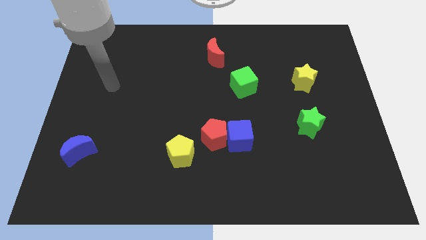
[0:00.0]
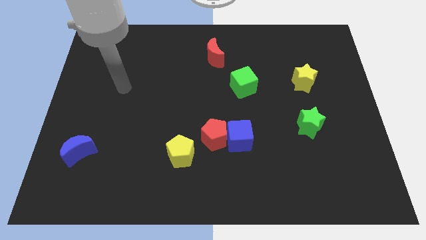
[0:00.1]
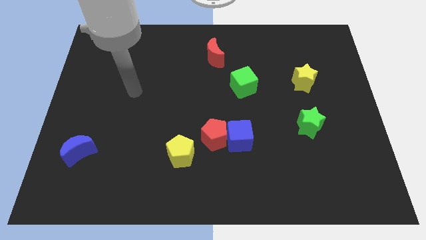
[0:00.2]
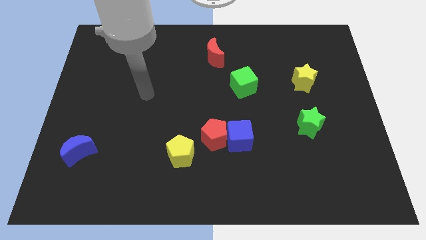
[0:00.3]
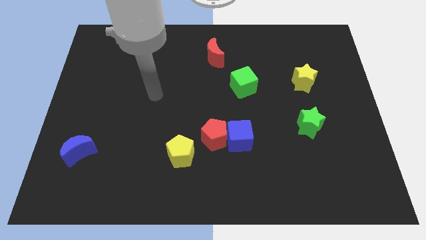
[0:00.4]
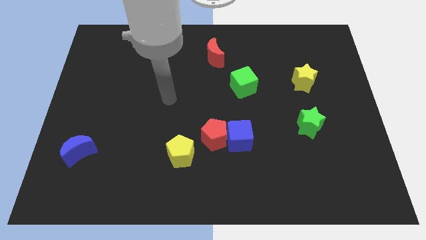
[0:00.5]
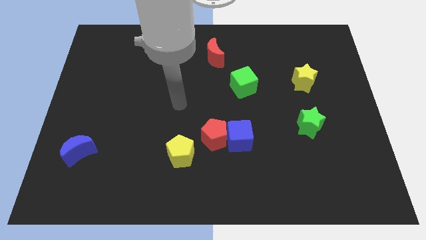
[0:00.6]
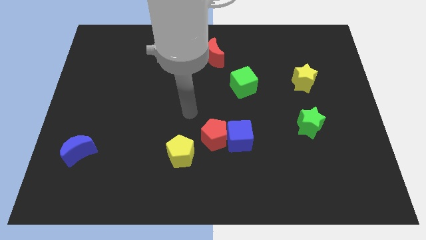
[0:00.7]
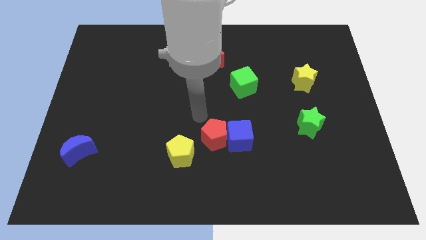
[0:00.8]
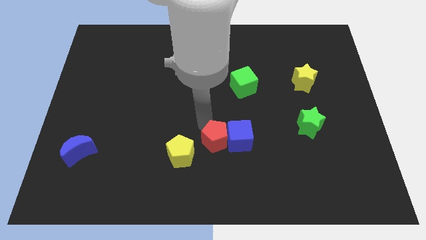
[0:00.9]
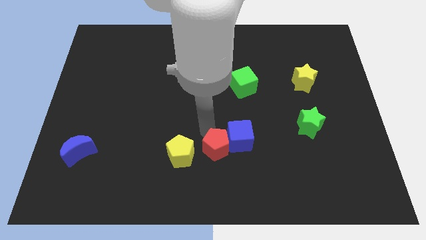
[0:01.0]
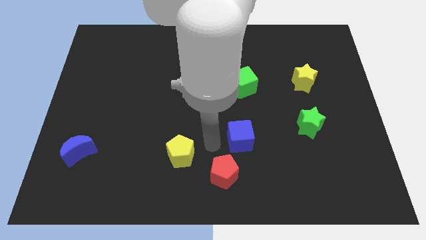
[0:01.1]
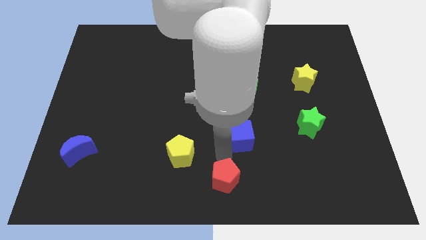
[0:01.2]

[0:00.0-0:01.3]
move the blue cube away from the red pentagon

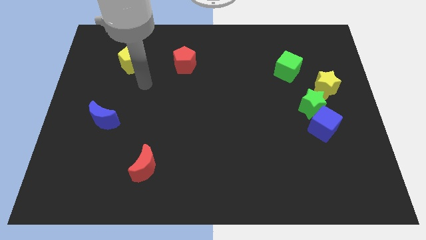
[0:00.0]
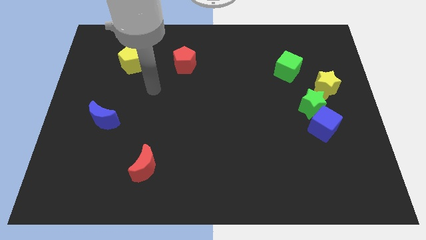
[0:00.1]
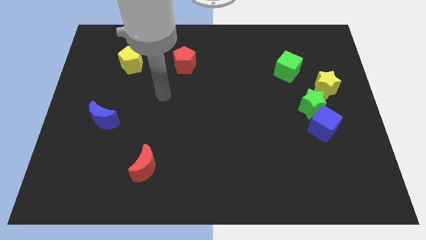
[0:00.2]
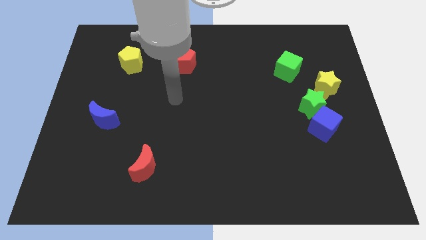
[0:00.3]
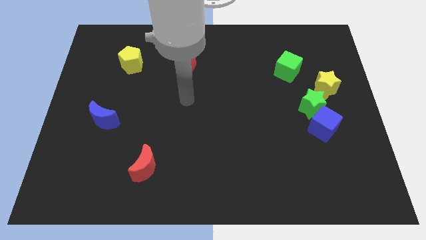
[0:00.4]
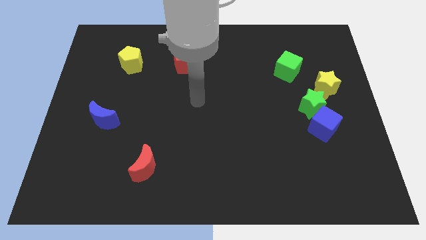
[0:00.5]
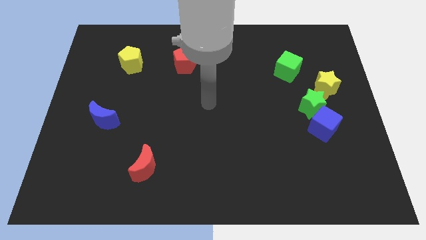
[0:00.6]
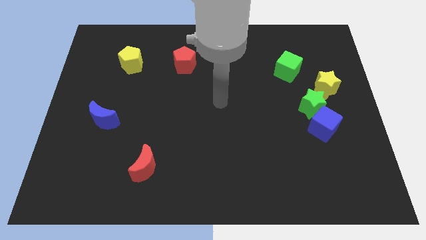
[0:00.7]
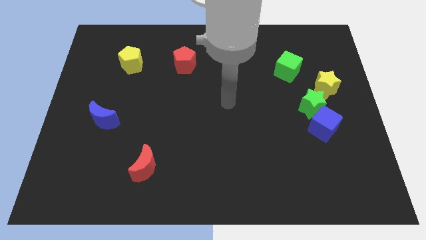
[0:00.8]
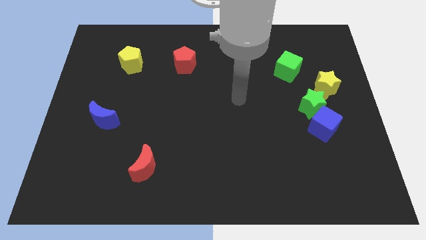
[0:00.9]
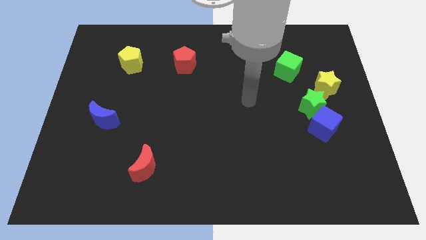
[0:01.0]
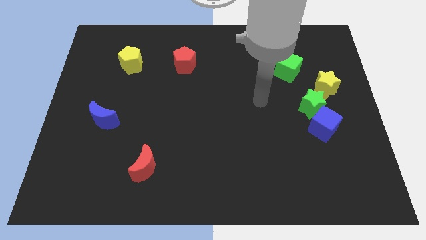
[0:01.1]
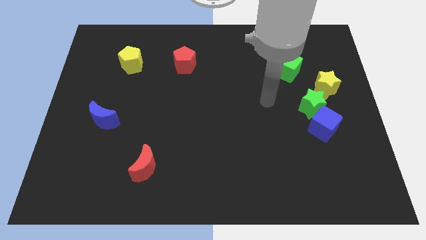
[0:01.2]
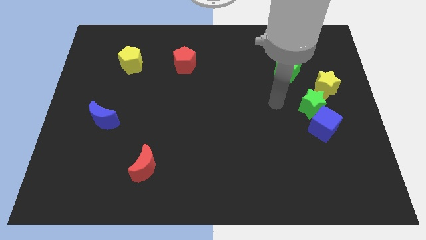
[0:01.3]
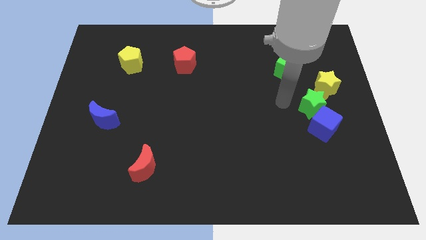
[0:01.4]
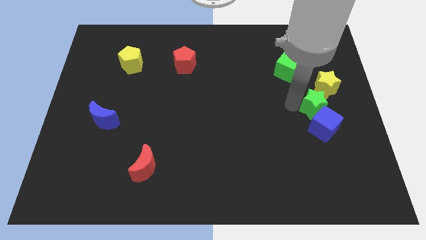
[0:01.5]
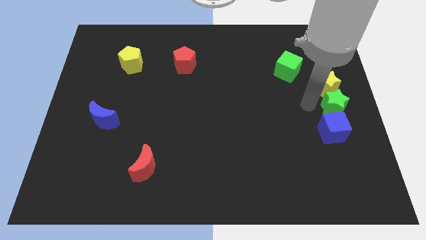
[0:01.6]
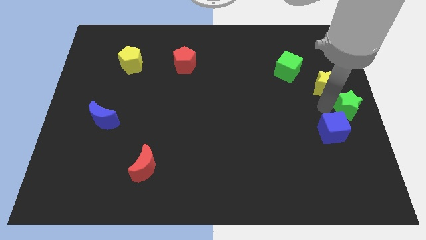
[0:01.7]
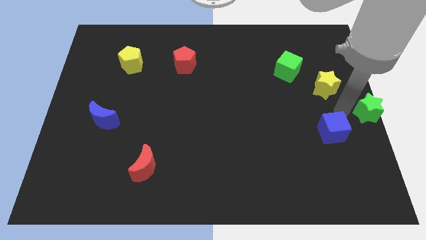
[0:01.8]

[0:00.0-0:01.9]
pull the blue cube apart from the green star

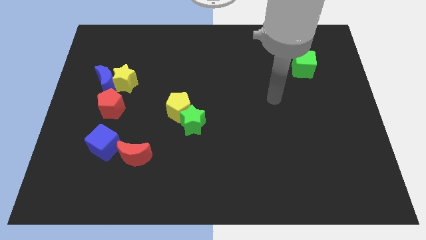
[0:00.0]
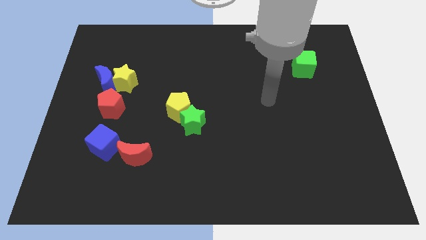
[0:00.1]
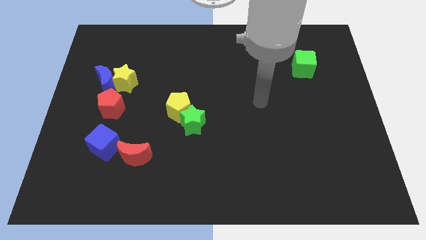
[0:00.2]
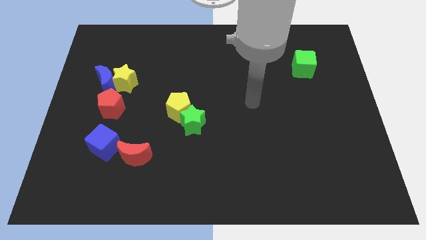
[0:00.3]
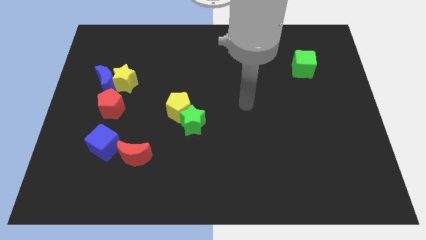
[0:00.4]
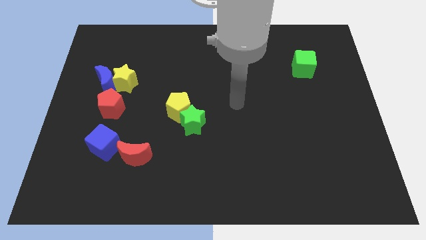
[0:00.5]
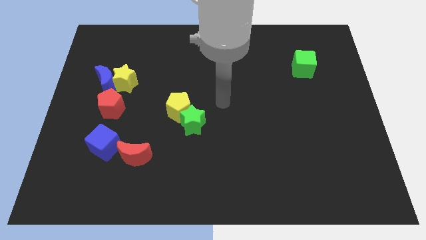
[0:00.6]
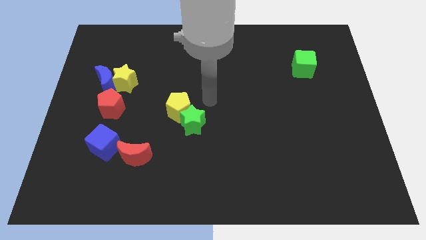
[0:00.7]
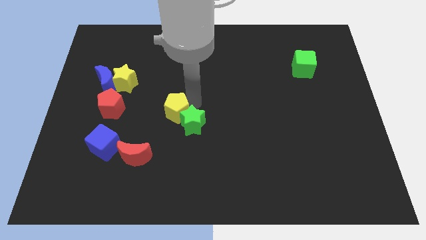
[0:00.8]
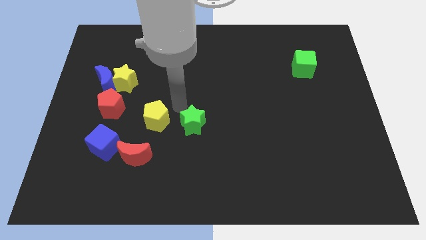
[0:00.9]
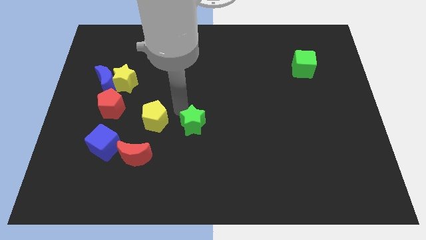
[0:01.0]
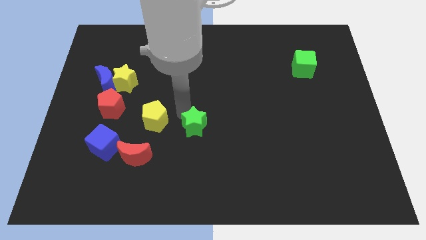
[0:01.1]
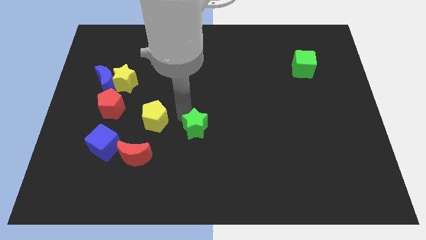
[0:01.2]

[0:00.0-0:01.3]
move the green star away from the yellow pentagon

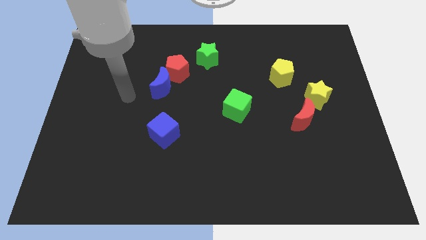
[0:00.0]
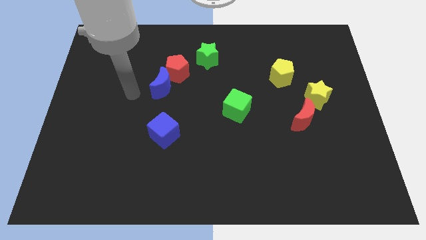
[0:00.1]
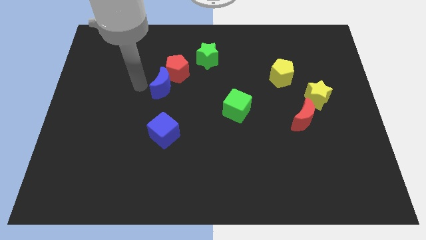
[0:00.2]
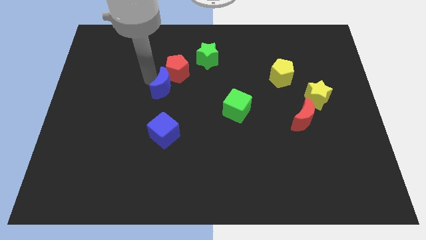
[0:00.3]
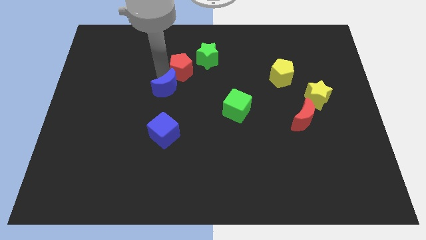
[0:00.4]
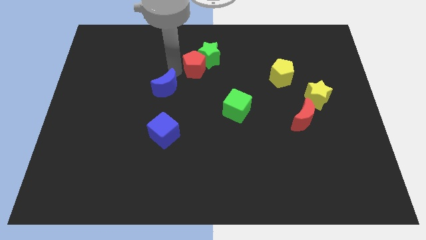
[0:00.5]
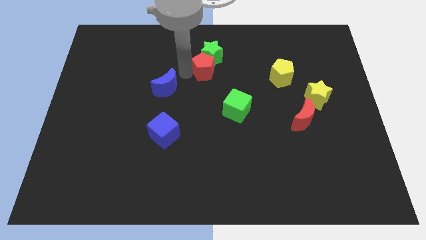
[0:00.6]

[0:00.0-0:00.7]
pull the blue moon apart from the red pentagon

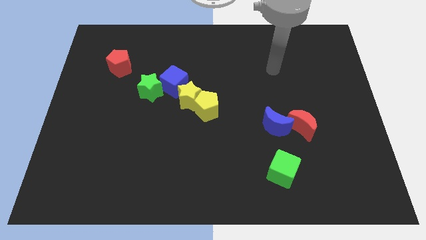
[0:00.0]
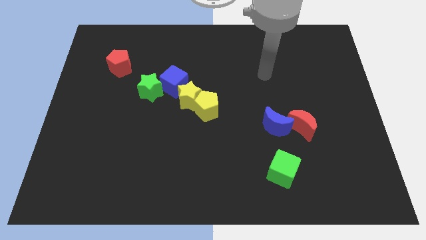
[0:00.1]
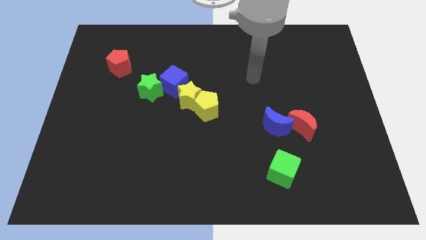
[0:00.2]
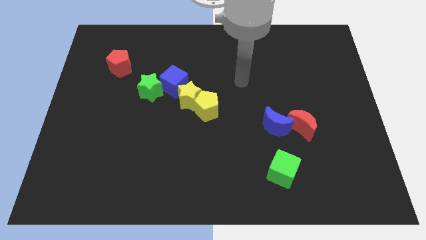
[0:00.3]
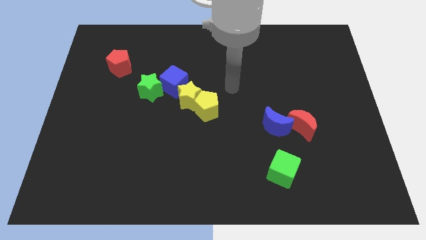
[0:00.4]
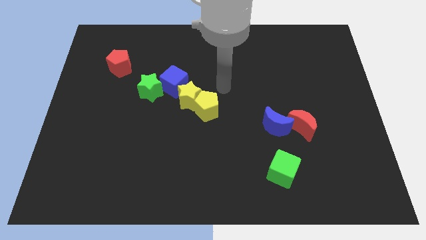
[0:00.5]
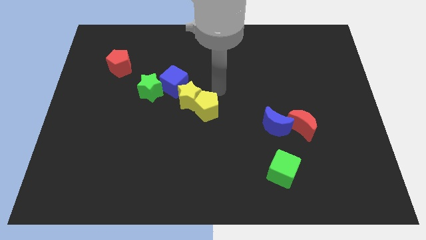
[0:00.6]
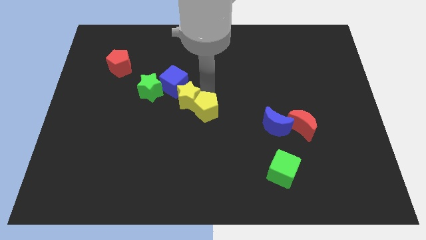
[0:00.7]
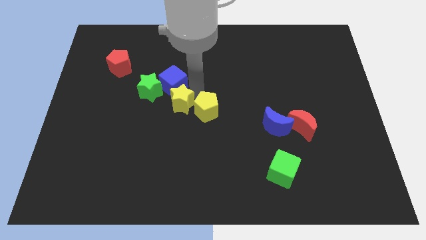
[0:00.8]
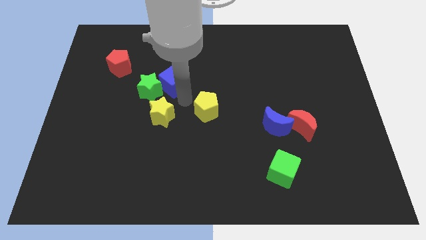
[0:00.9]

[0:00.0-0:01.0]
pull the yellow pentagon apart from the yellow star

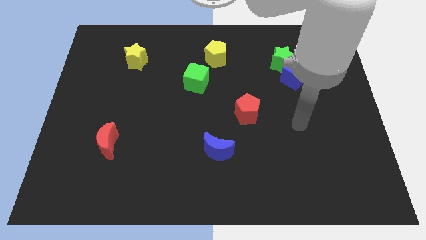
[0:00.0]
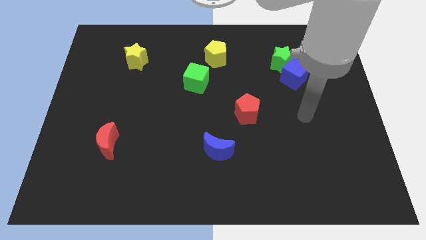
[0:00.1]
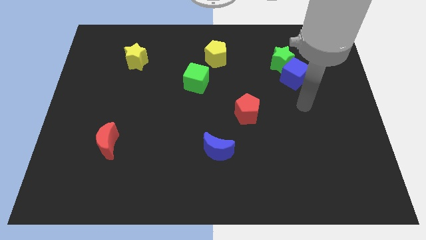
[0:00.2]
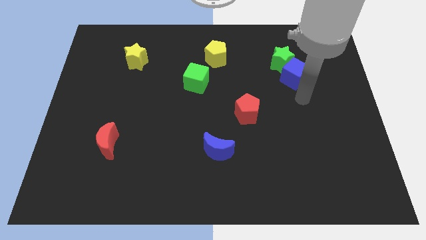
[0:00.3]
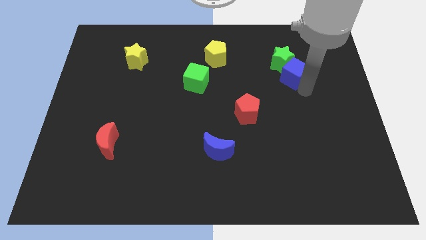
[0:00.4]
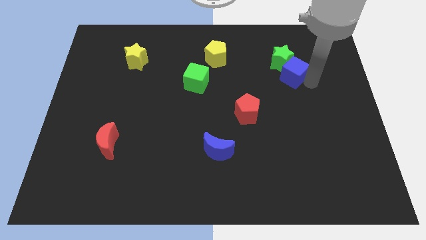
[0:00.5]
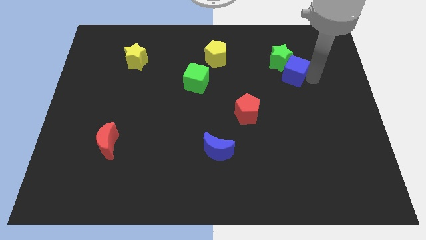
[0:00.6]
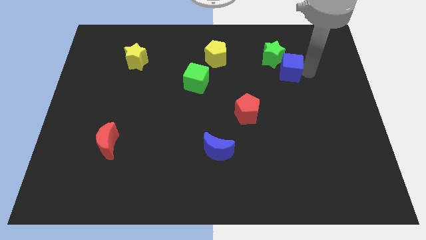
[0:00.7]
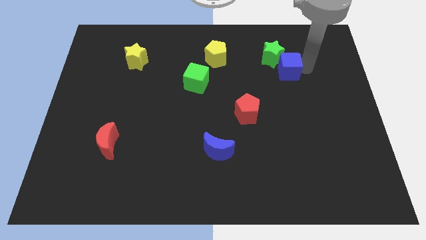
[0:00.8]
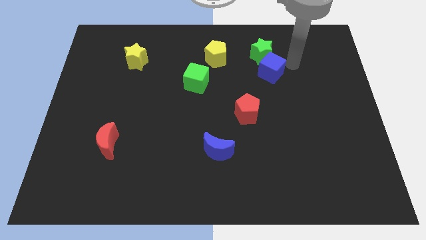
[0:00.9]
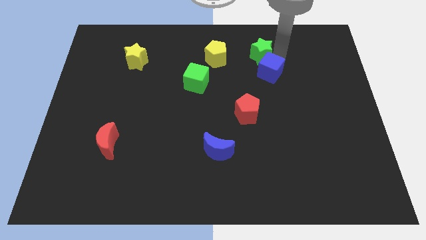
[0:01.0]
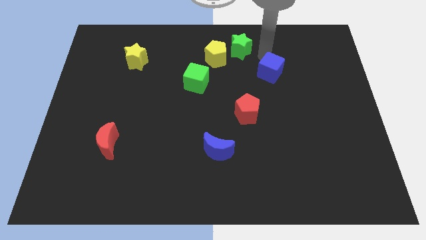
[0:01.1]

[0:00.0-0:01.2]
separate the blue cube from the green star

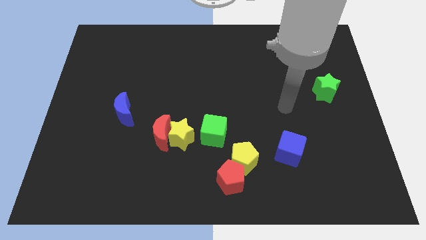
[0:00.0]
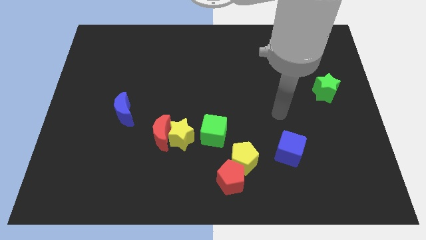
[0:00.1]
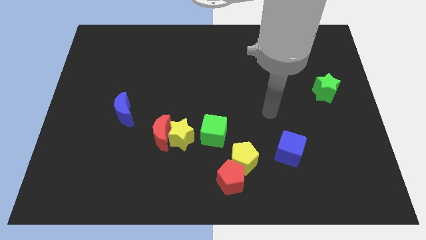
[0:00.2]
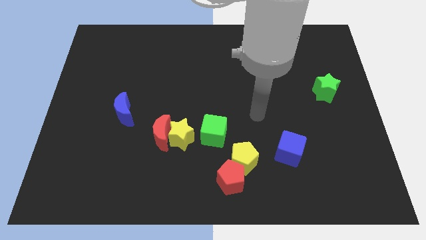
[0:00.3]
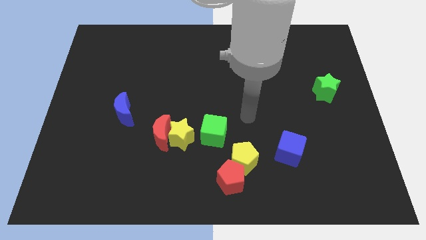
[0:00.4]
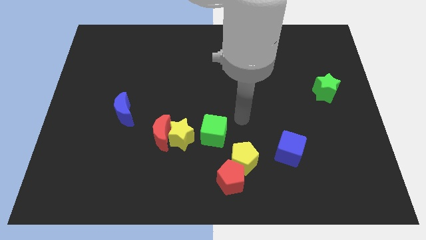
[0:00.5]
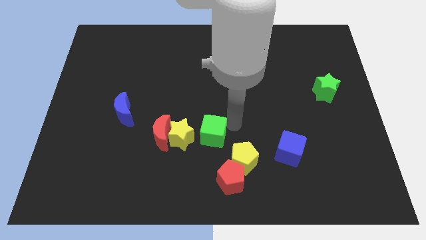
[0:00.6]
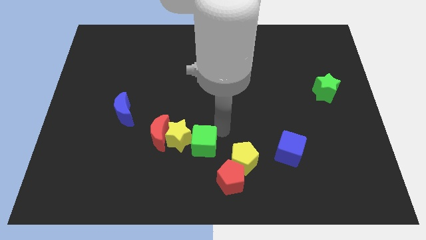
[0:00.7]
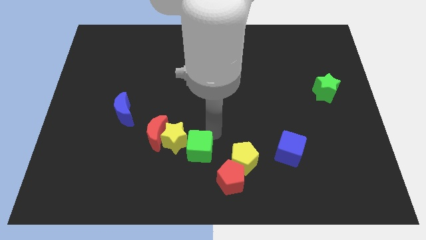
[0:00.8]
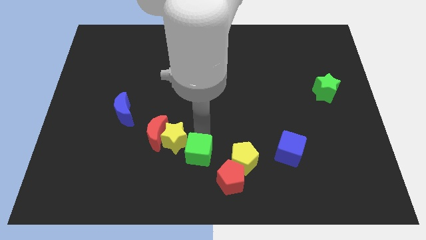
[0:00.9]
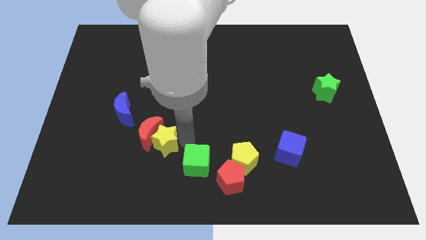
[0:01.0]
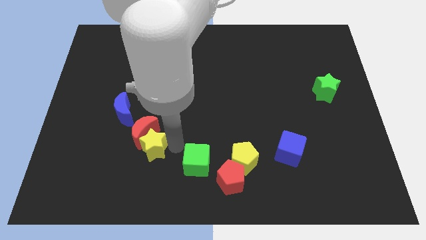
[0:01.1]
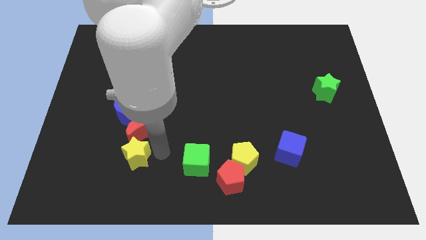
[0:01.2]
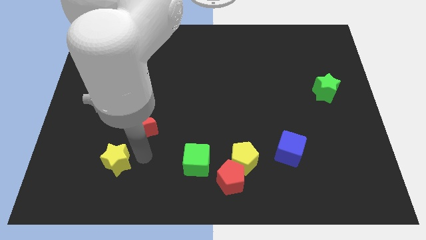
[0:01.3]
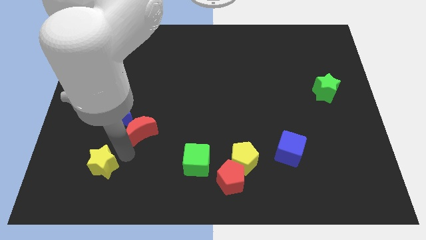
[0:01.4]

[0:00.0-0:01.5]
pull the red moon apart from the yellow star

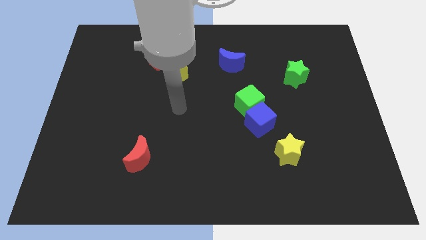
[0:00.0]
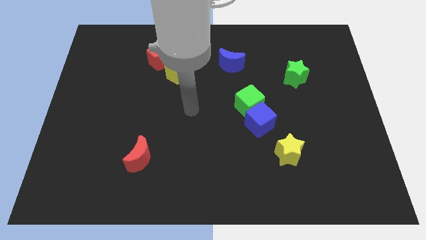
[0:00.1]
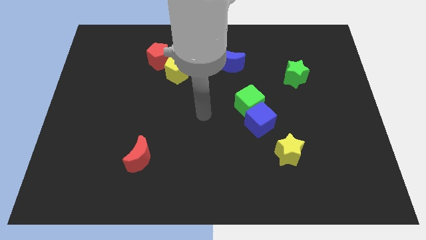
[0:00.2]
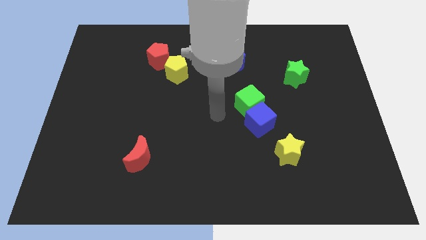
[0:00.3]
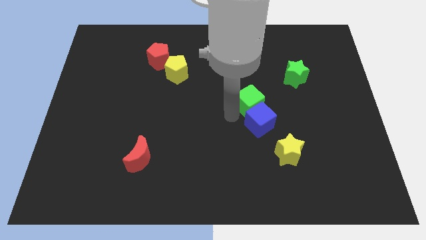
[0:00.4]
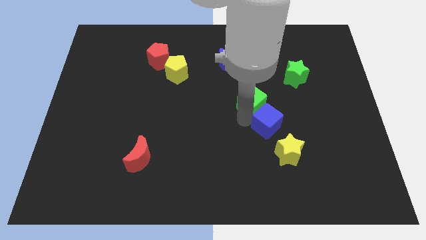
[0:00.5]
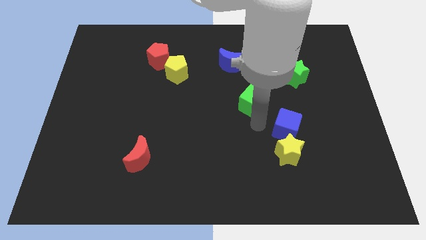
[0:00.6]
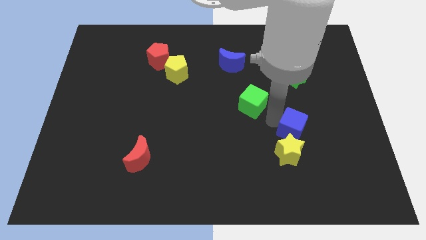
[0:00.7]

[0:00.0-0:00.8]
separate the green cube from the blue cube
